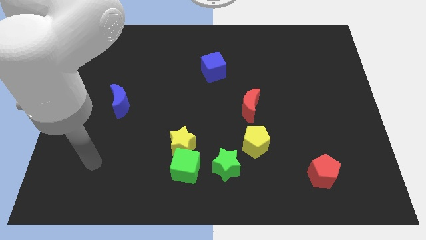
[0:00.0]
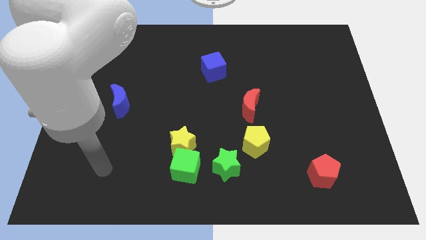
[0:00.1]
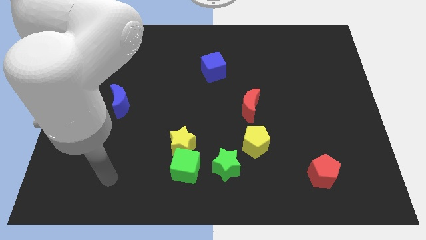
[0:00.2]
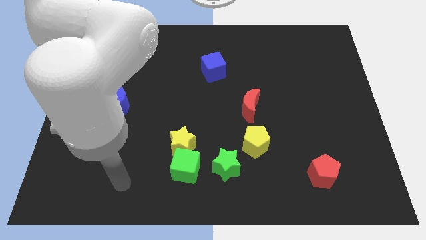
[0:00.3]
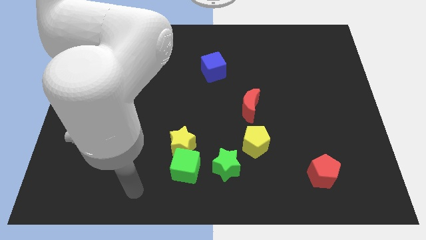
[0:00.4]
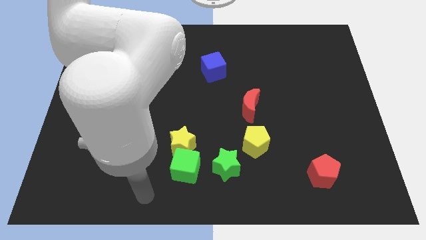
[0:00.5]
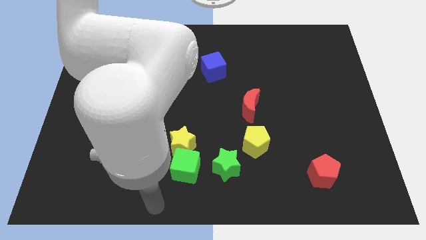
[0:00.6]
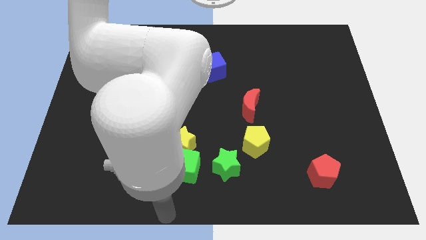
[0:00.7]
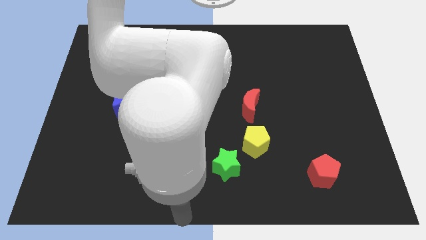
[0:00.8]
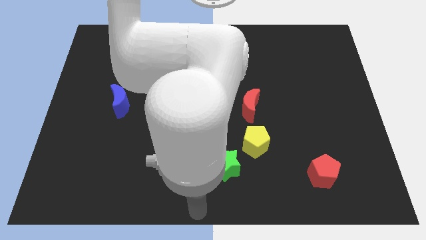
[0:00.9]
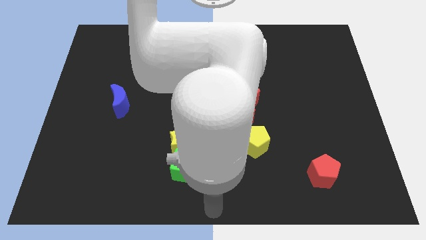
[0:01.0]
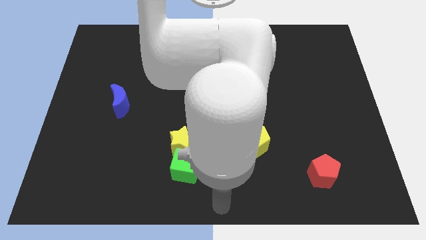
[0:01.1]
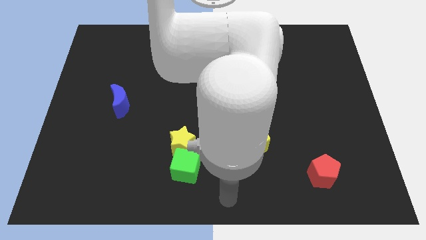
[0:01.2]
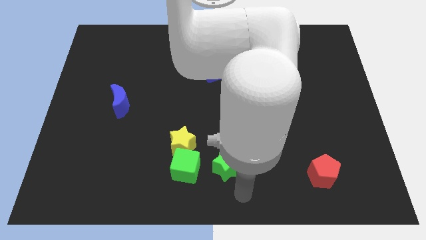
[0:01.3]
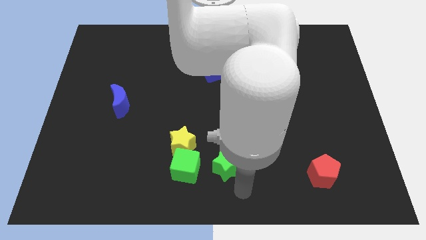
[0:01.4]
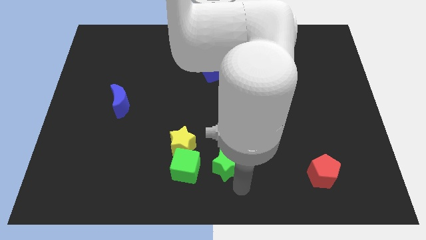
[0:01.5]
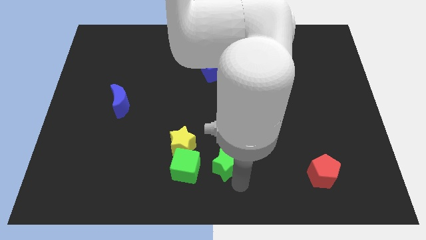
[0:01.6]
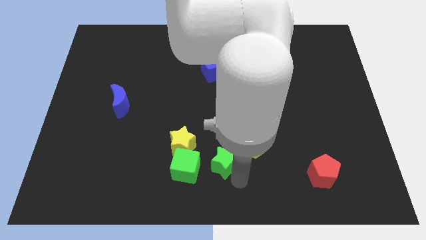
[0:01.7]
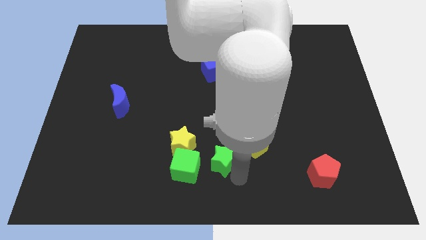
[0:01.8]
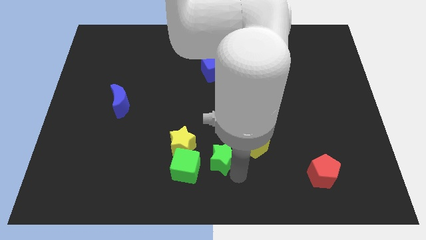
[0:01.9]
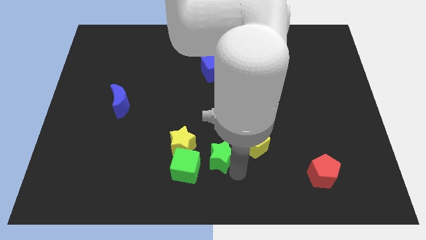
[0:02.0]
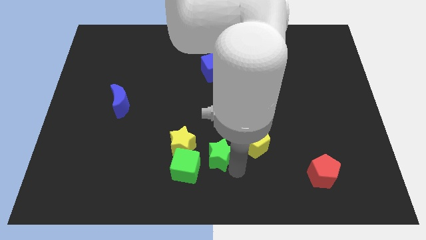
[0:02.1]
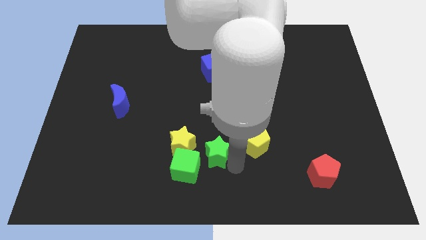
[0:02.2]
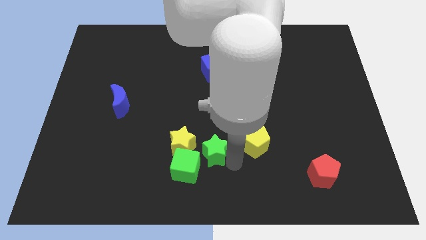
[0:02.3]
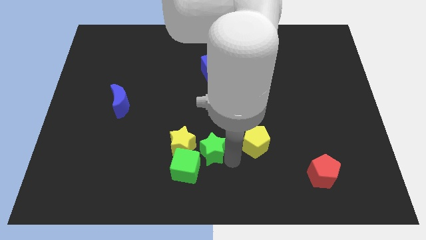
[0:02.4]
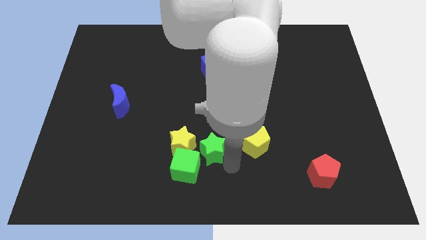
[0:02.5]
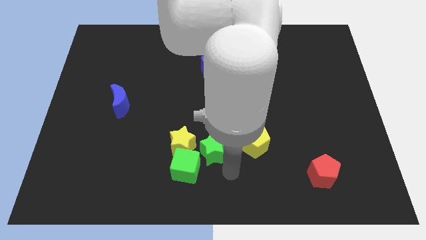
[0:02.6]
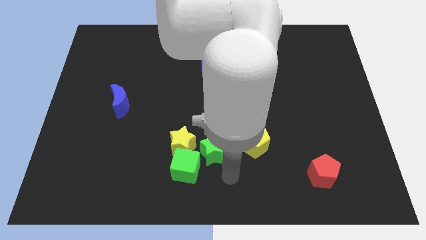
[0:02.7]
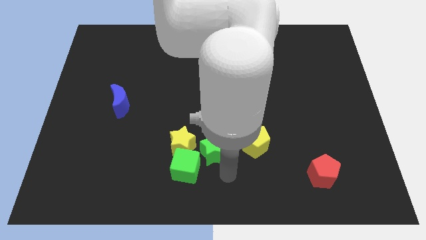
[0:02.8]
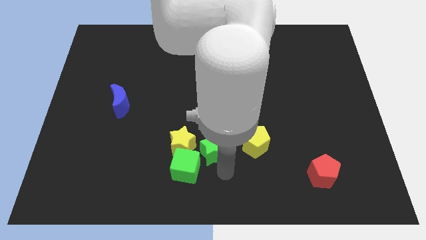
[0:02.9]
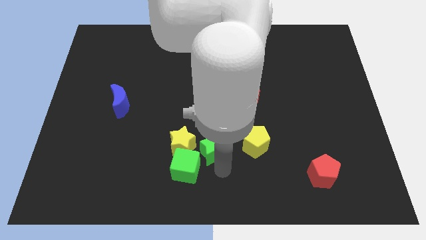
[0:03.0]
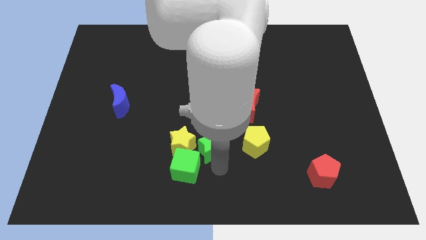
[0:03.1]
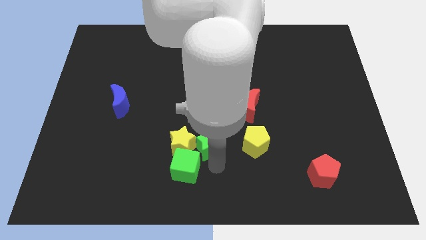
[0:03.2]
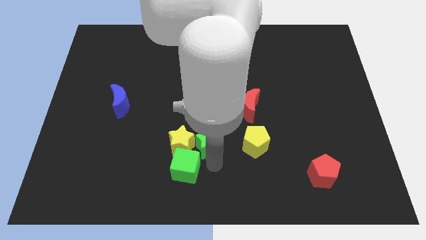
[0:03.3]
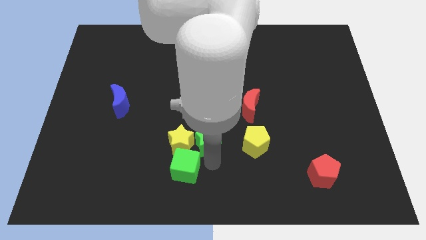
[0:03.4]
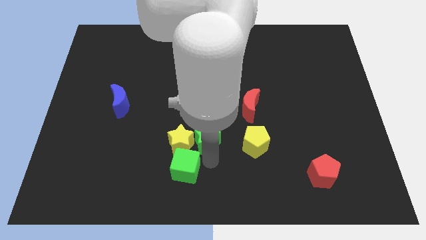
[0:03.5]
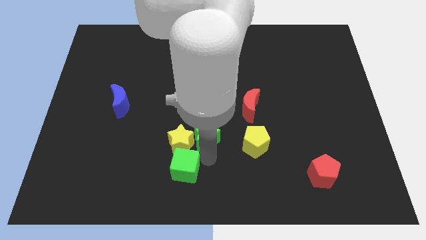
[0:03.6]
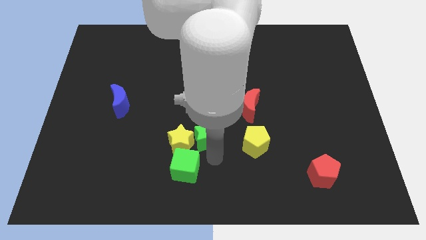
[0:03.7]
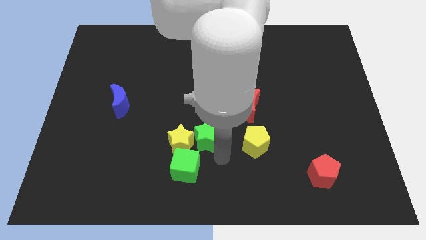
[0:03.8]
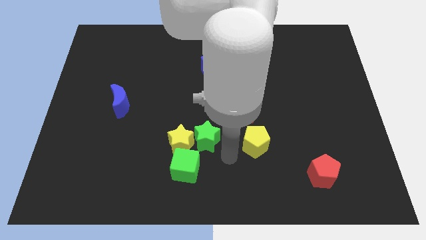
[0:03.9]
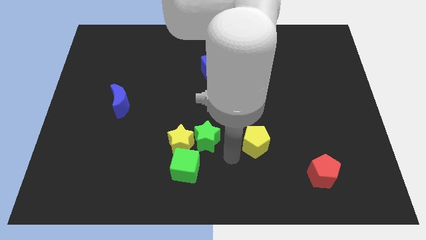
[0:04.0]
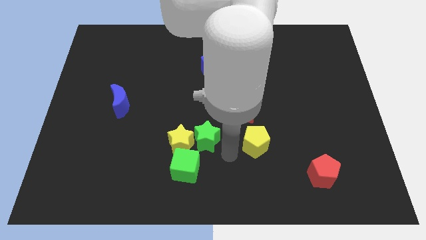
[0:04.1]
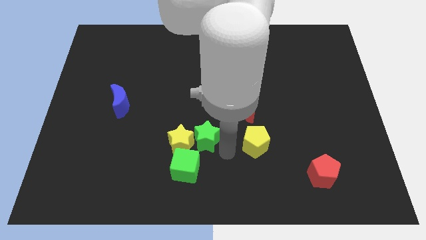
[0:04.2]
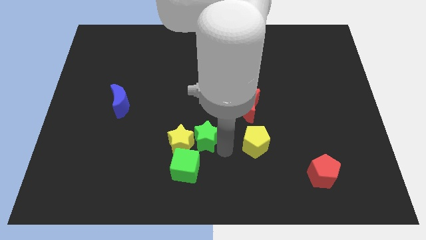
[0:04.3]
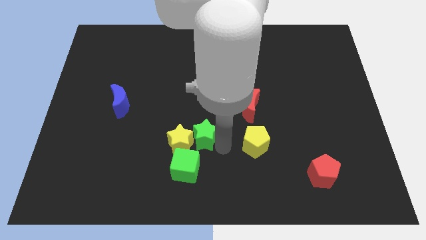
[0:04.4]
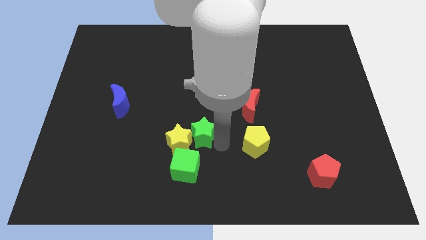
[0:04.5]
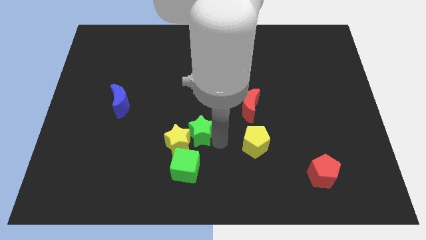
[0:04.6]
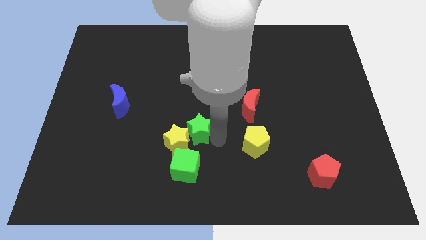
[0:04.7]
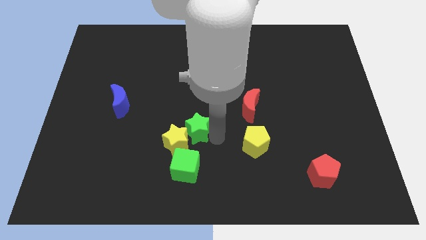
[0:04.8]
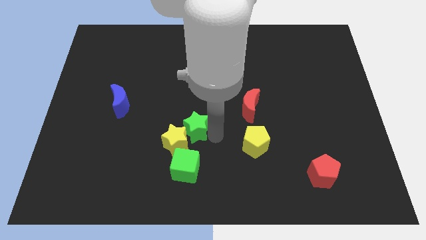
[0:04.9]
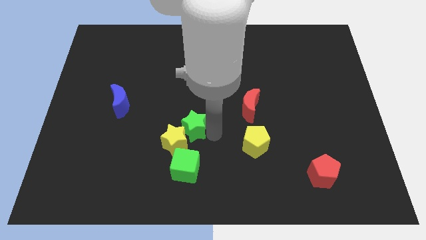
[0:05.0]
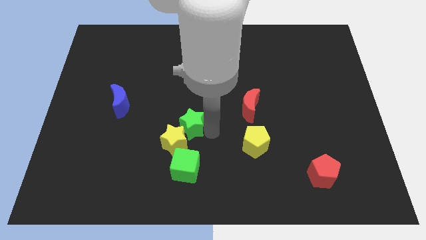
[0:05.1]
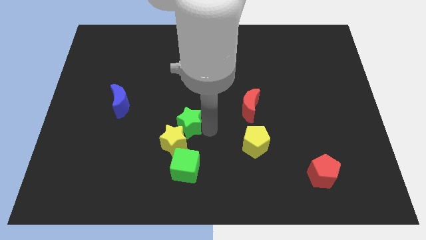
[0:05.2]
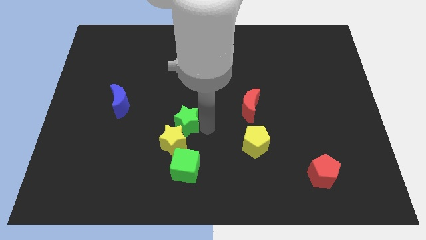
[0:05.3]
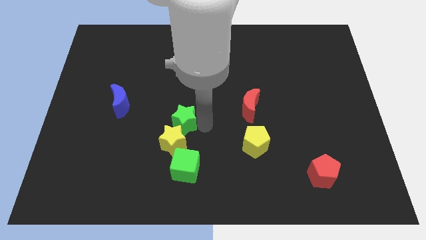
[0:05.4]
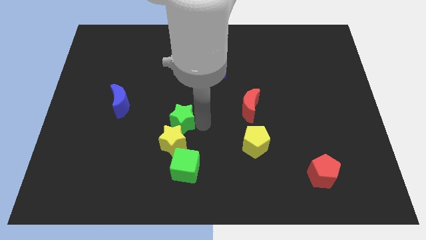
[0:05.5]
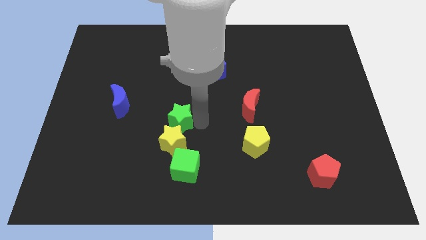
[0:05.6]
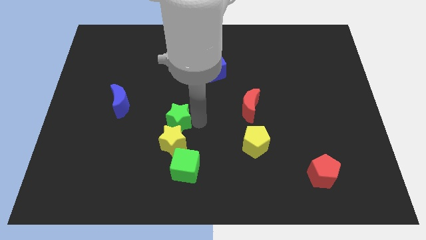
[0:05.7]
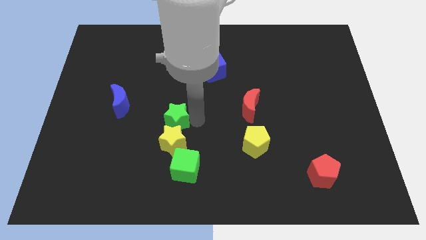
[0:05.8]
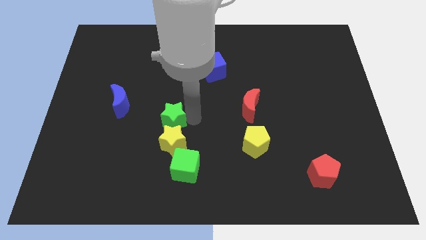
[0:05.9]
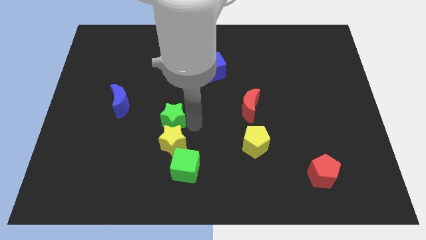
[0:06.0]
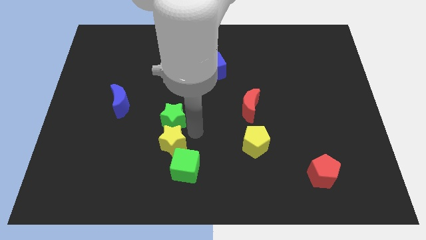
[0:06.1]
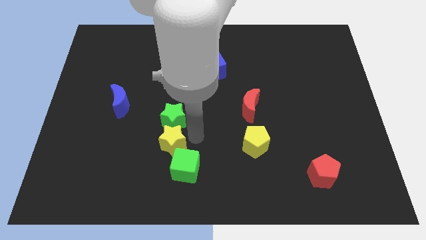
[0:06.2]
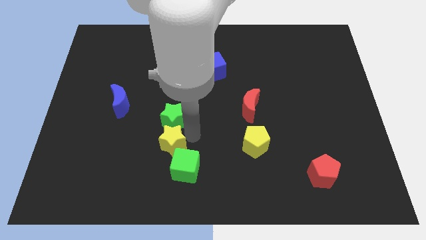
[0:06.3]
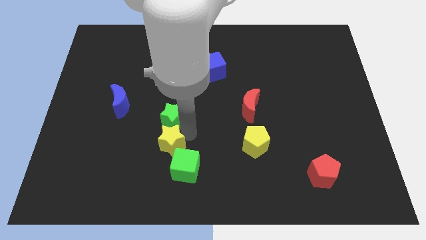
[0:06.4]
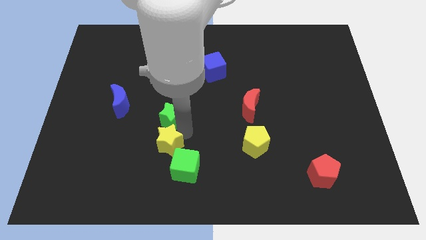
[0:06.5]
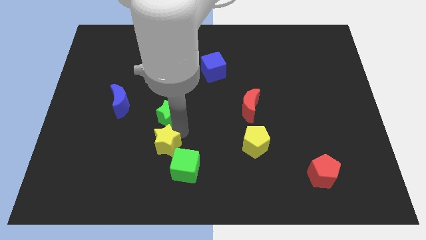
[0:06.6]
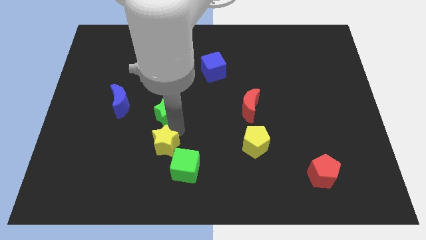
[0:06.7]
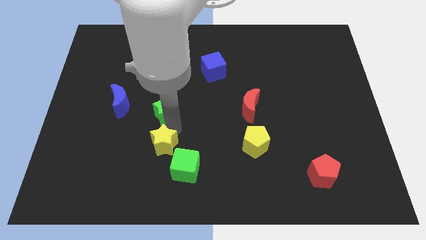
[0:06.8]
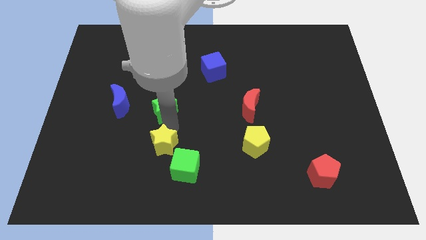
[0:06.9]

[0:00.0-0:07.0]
slide the green star up and to the left

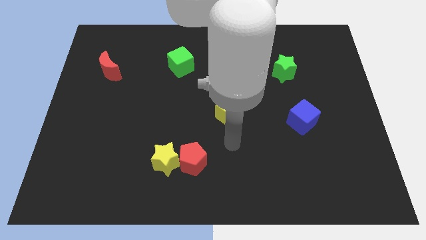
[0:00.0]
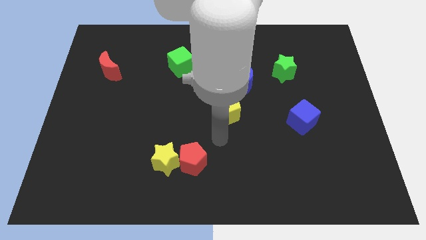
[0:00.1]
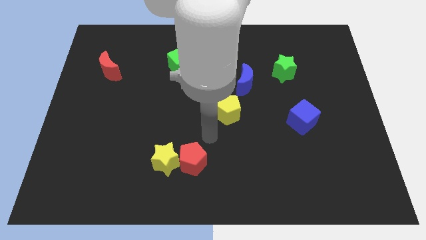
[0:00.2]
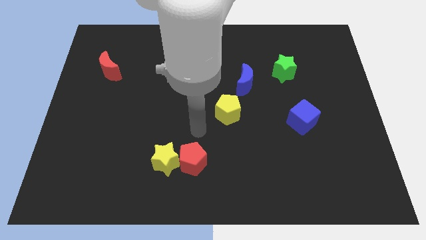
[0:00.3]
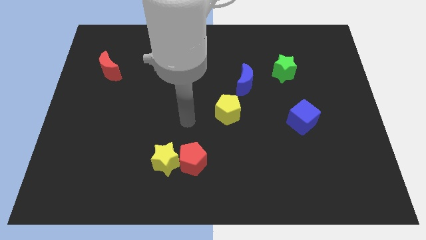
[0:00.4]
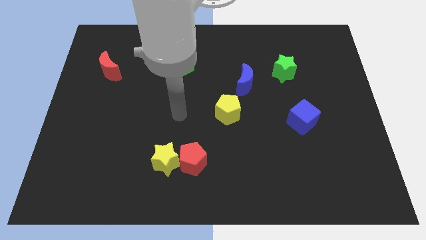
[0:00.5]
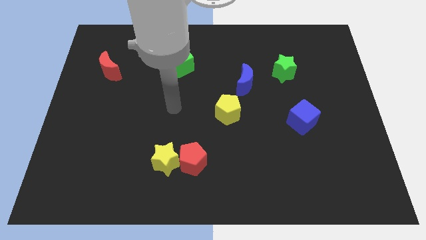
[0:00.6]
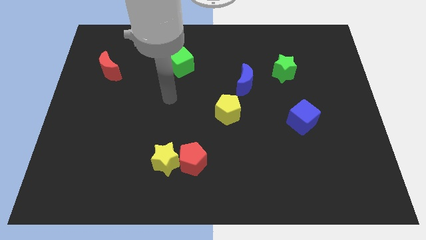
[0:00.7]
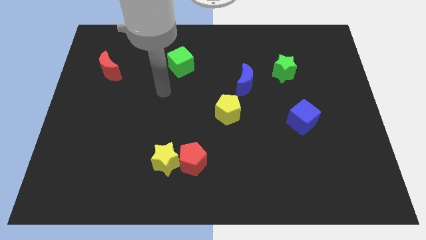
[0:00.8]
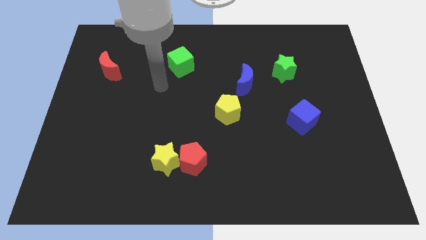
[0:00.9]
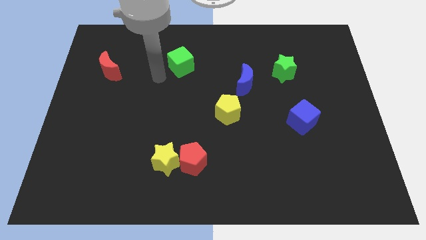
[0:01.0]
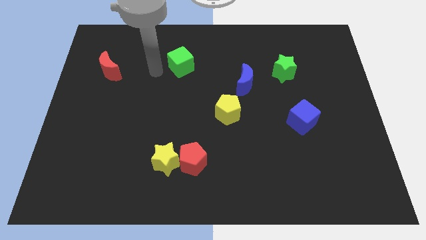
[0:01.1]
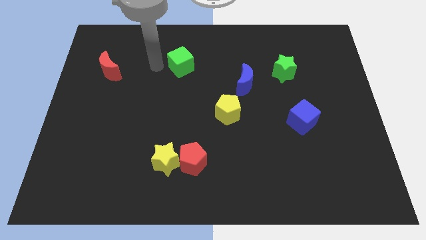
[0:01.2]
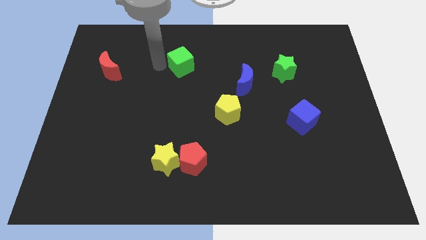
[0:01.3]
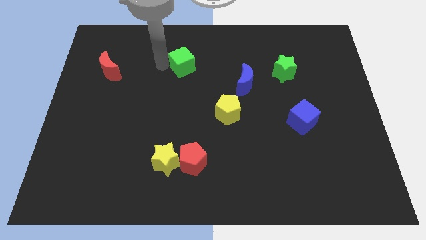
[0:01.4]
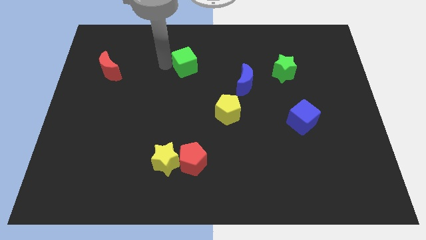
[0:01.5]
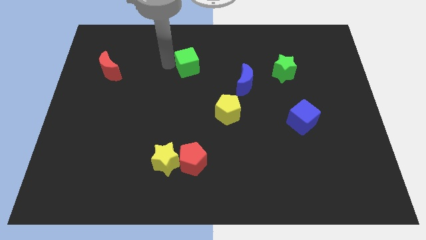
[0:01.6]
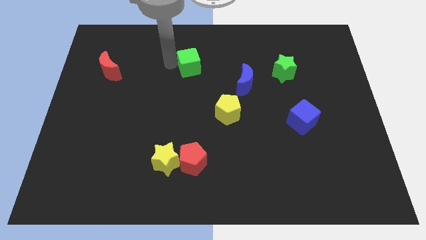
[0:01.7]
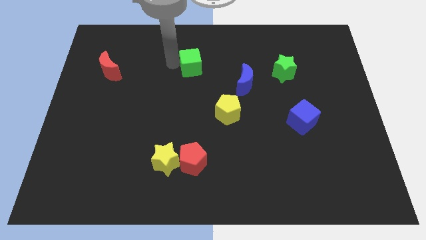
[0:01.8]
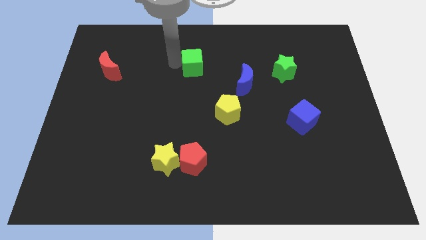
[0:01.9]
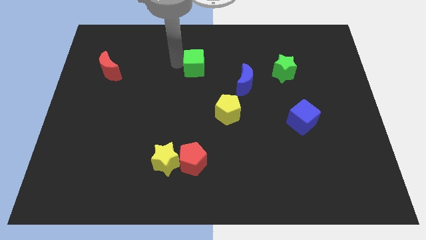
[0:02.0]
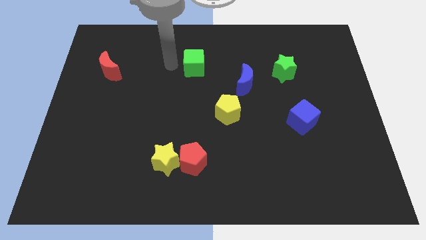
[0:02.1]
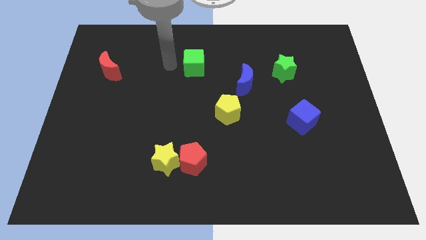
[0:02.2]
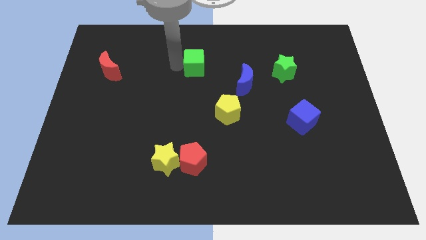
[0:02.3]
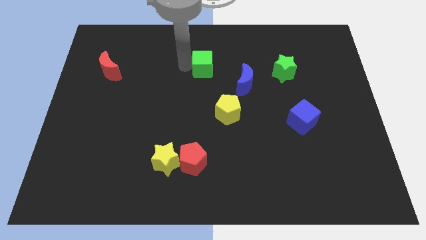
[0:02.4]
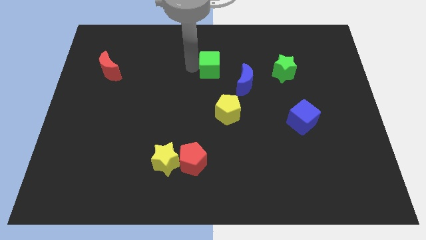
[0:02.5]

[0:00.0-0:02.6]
push the green cube right slightly
